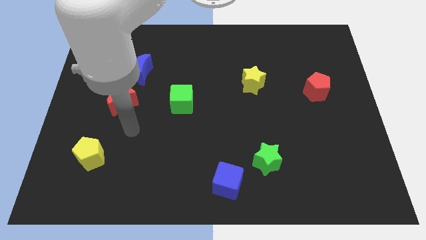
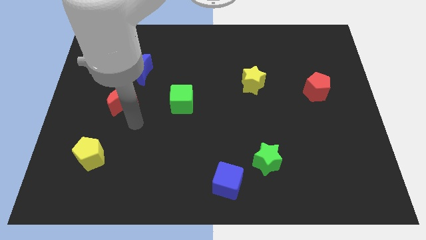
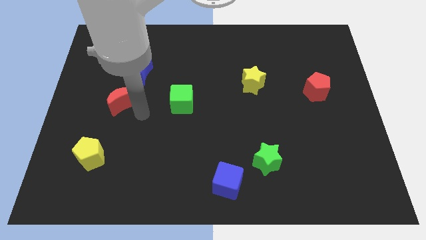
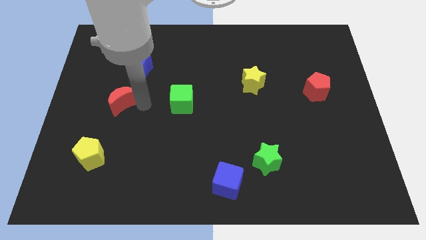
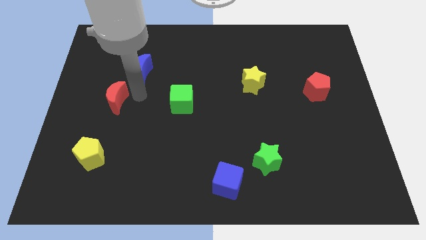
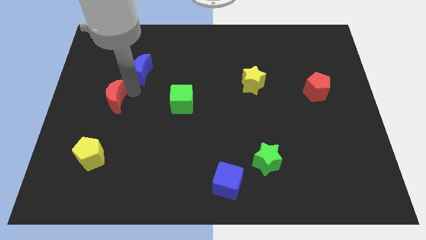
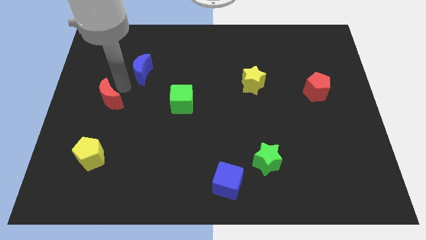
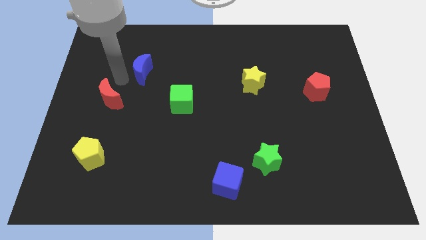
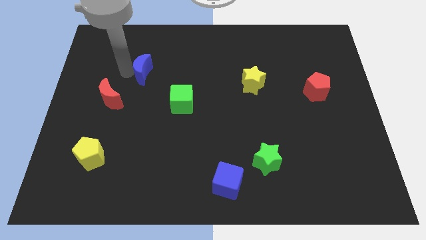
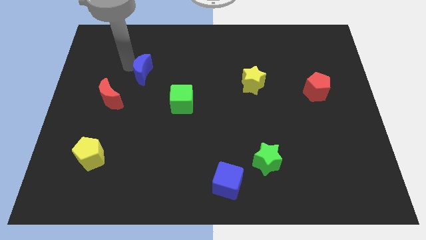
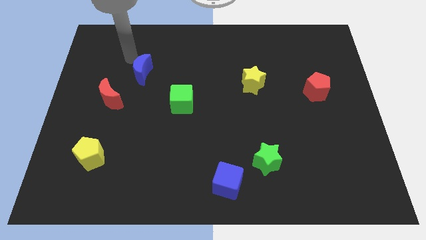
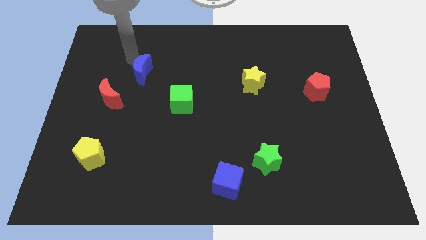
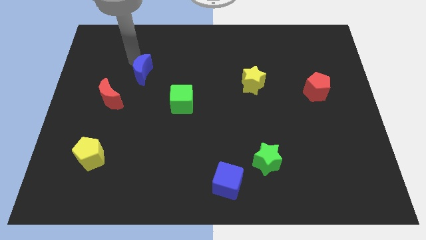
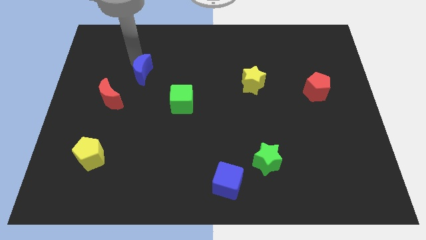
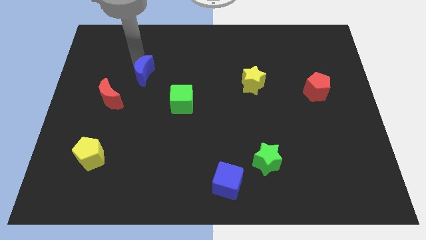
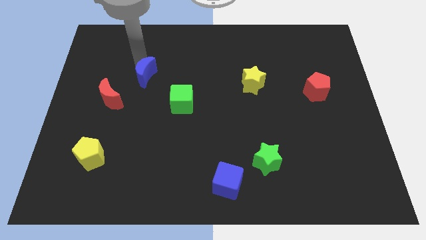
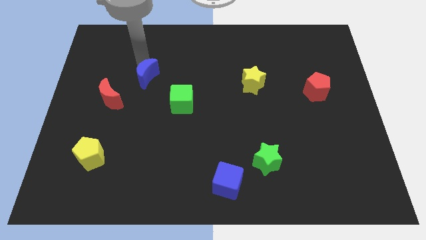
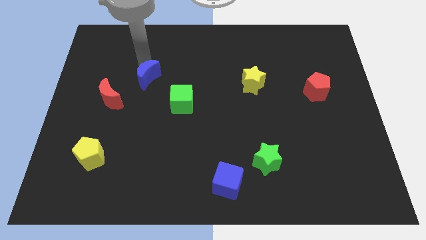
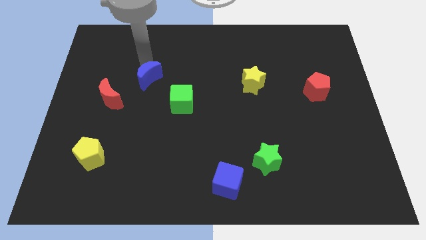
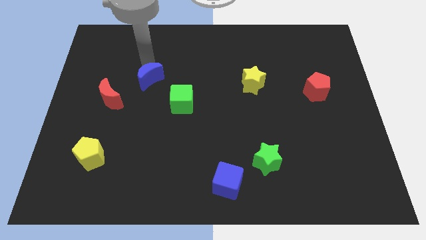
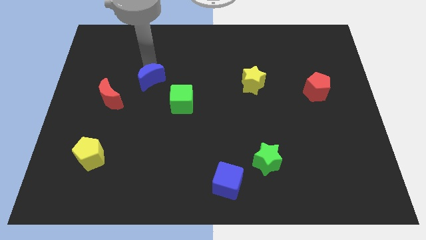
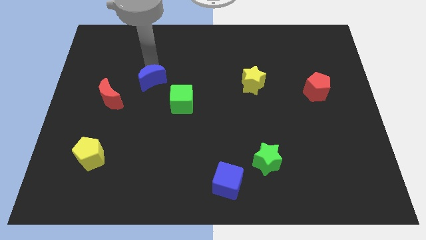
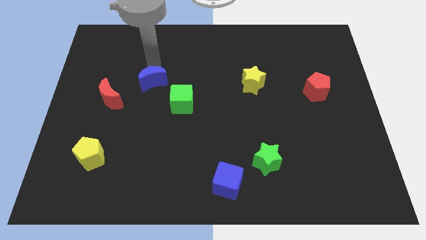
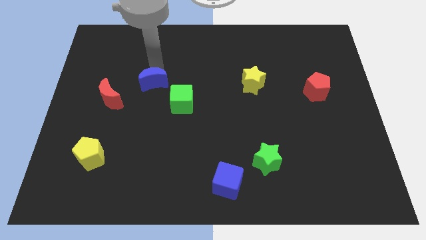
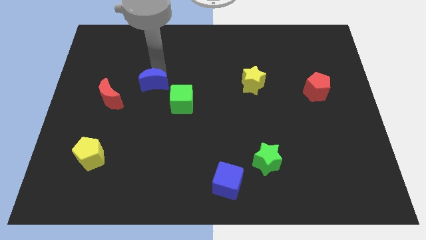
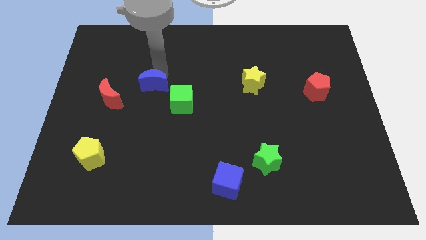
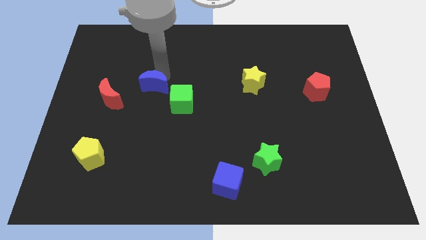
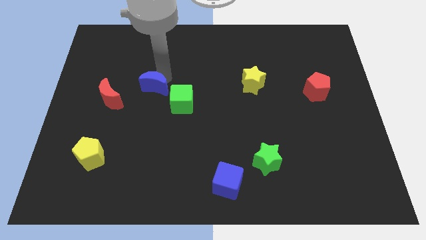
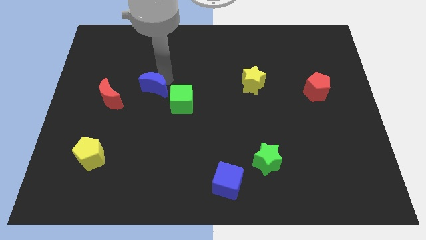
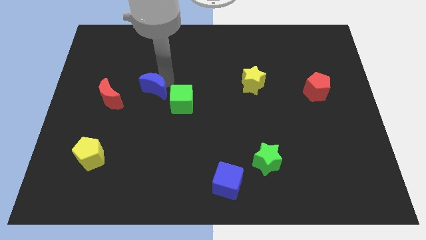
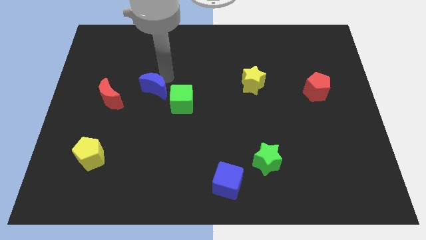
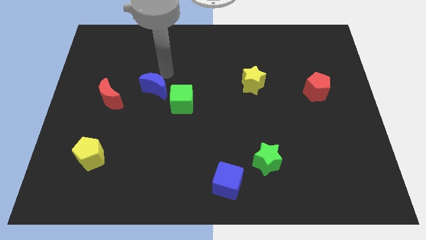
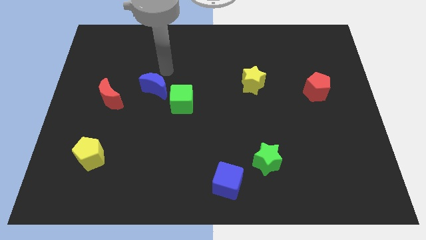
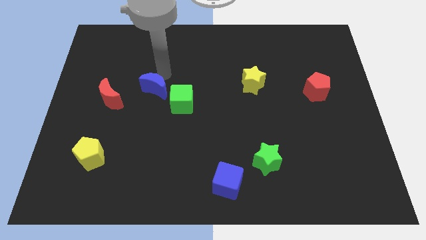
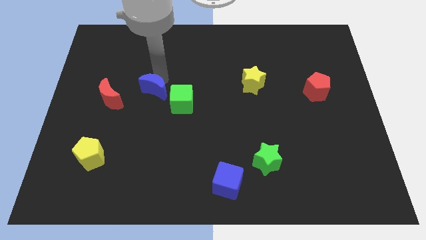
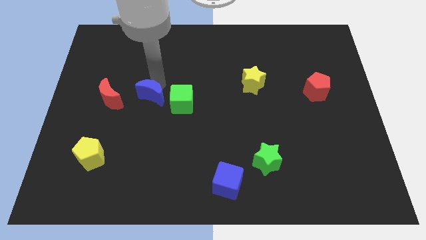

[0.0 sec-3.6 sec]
slide the blue moon down a little bit

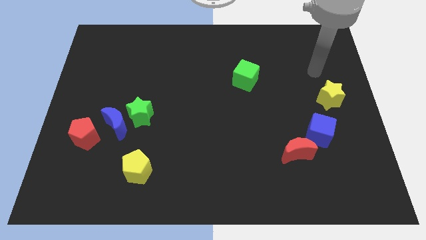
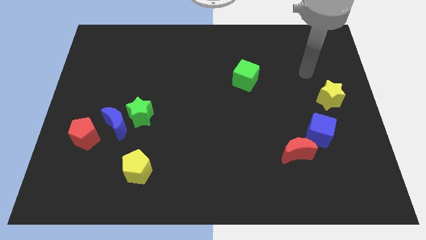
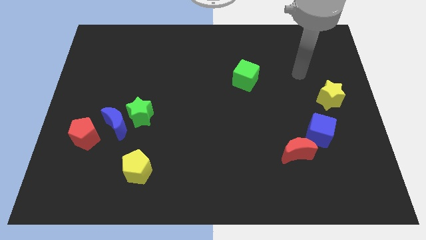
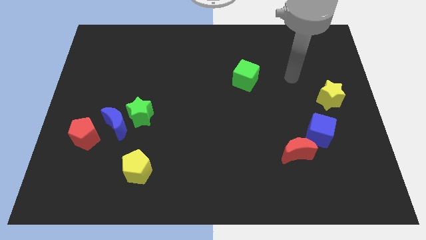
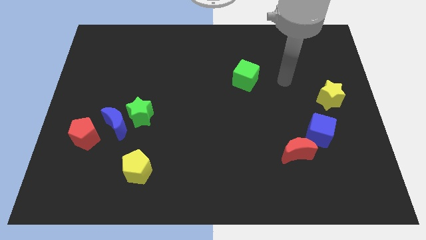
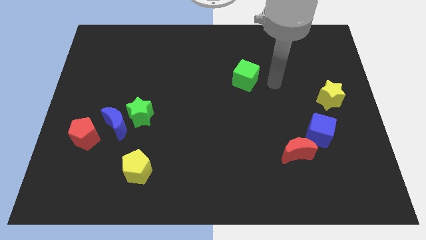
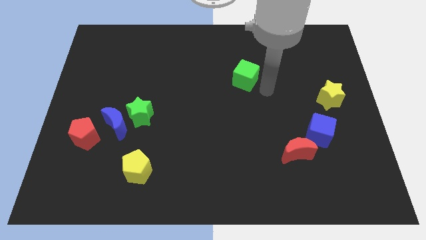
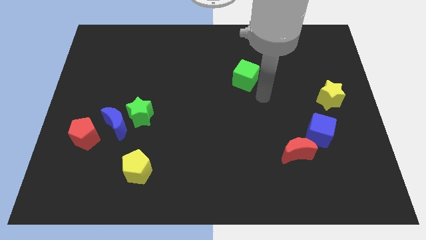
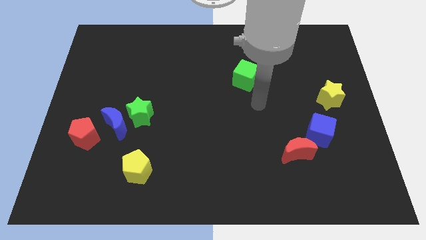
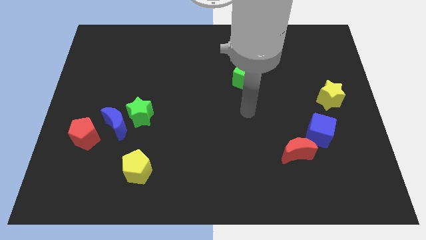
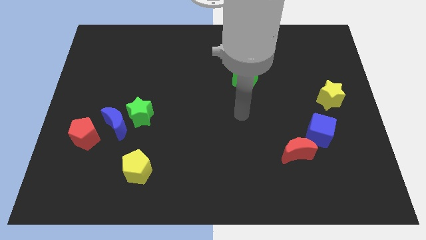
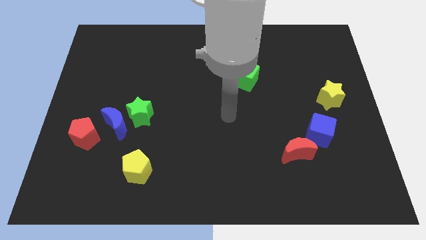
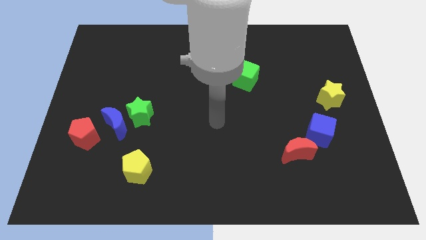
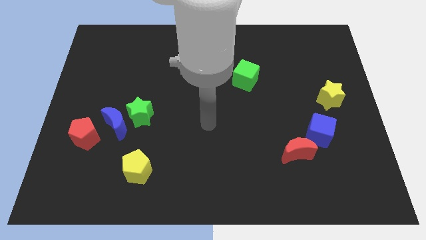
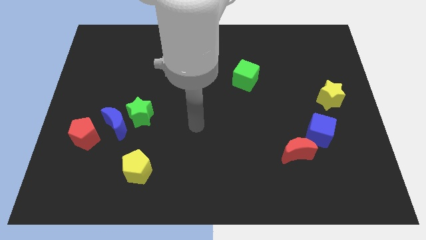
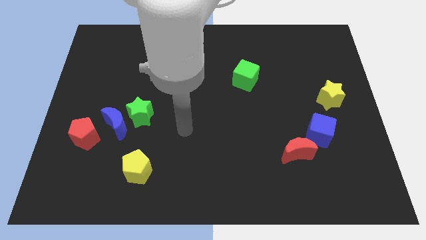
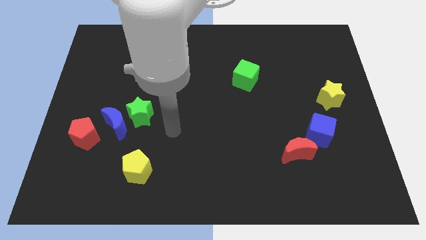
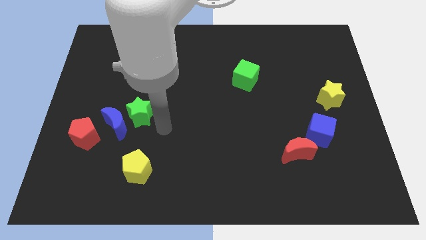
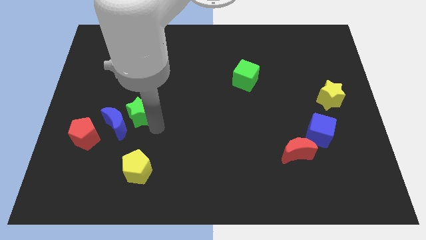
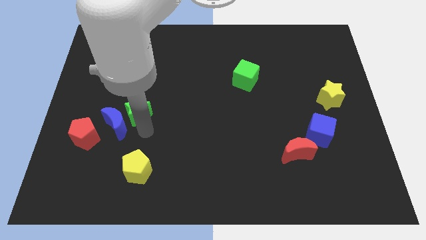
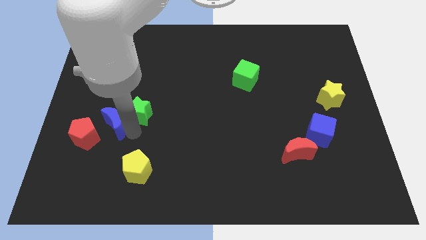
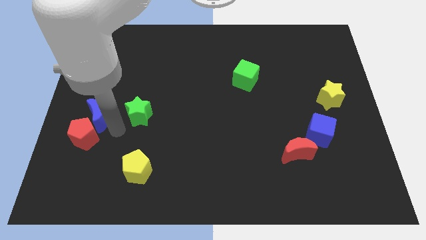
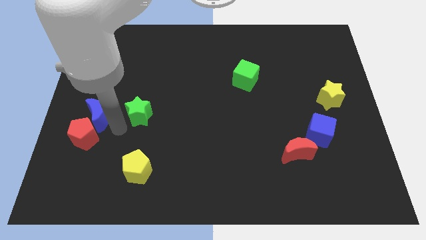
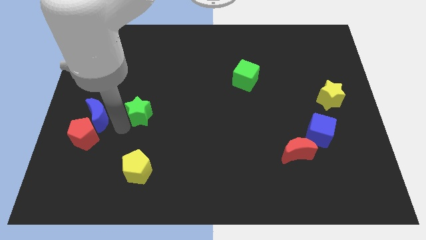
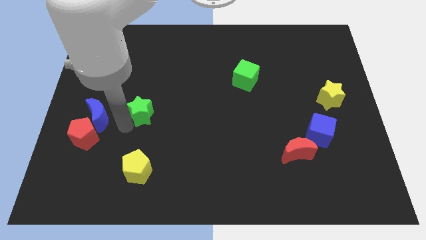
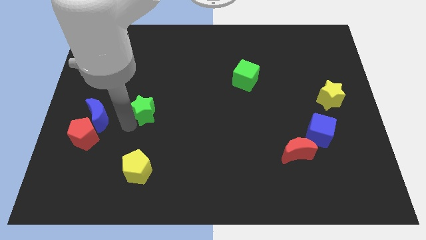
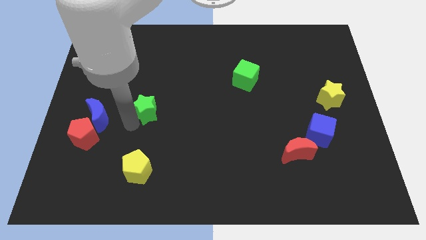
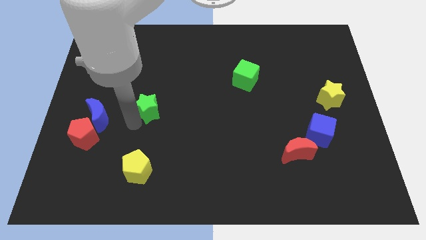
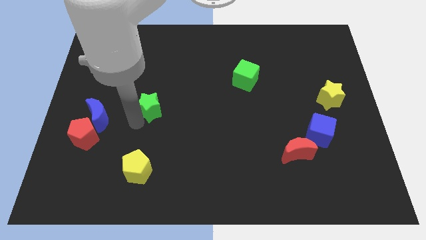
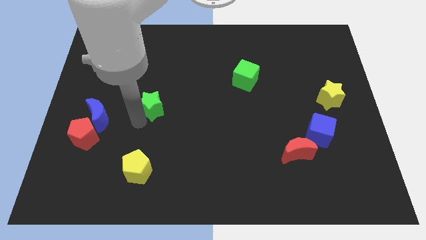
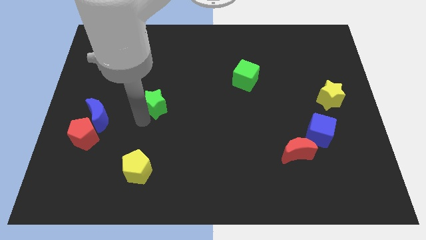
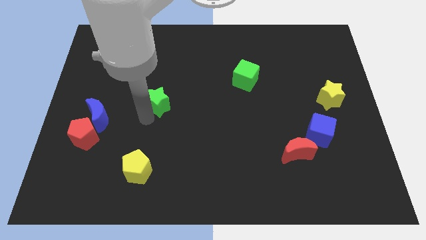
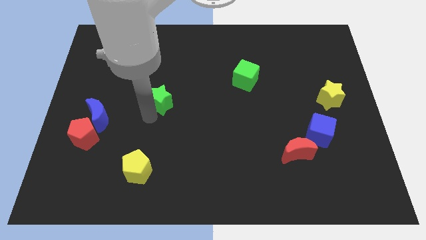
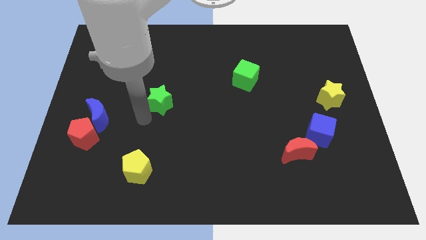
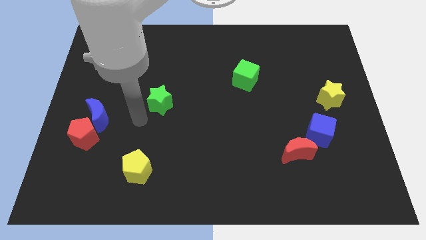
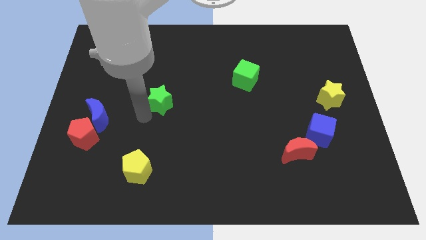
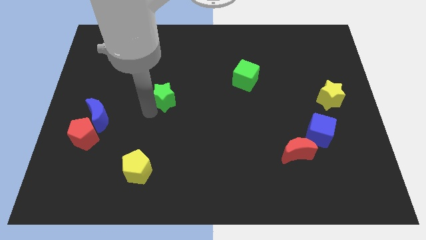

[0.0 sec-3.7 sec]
push the green star diagonally upwards and to the right a little bit

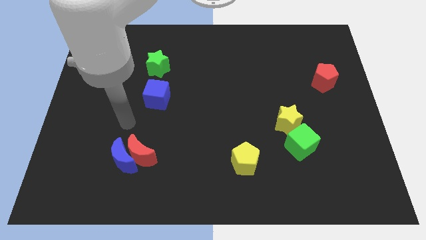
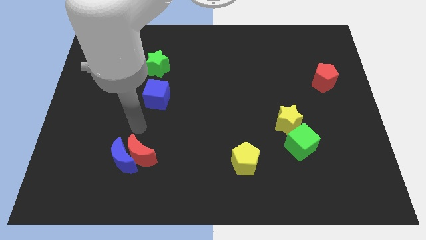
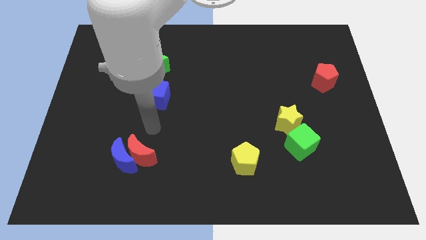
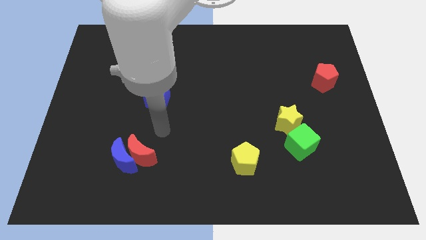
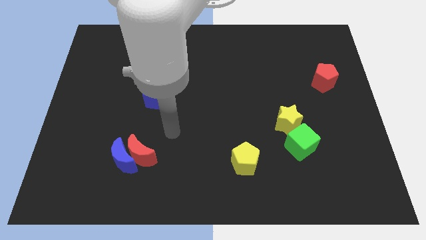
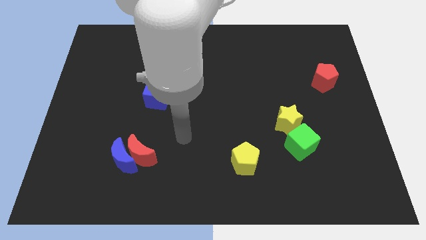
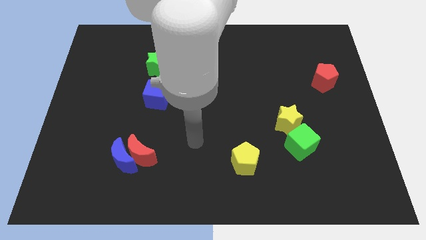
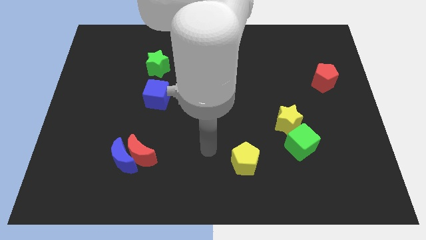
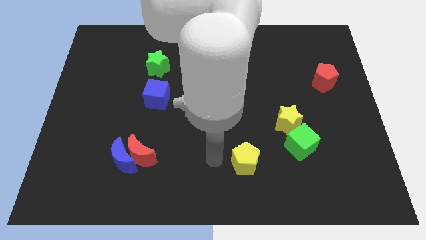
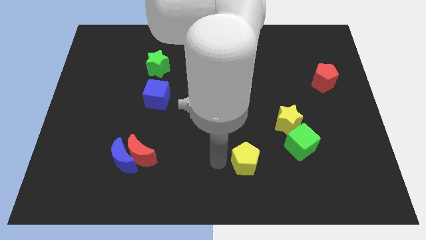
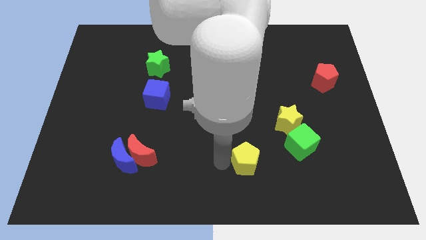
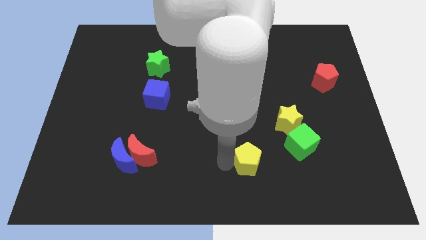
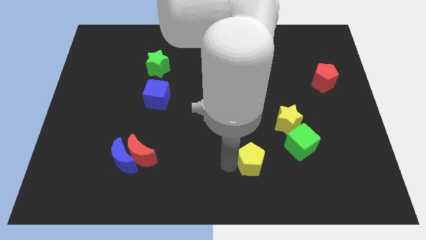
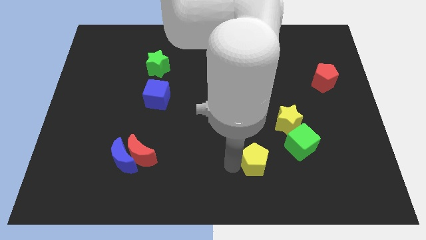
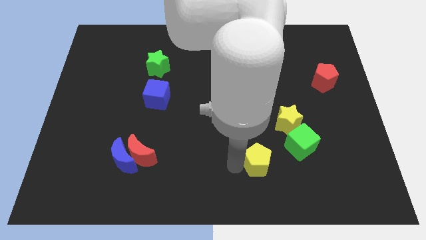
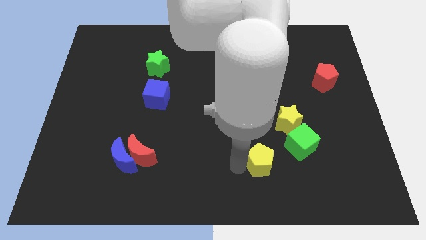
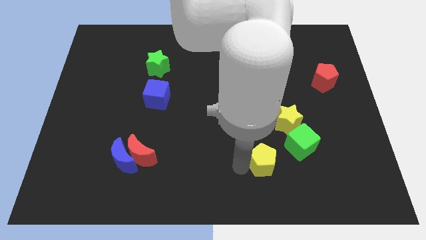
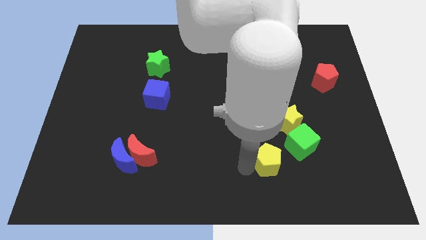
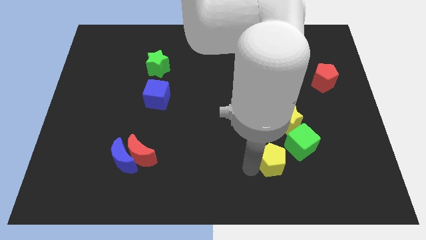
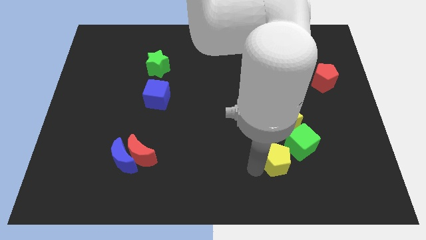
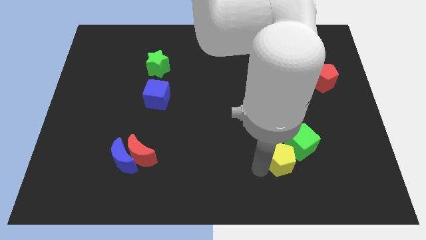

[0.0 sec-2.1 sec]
slightly move the yellow pentagon to the right
